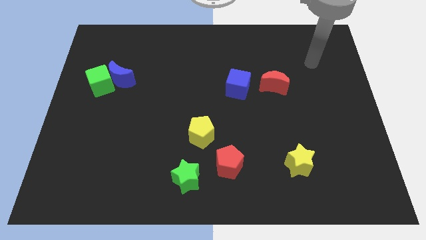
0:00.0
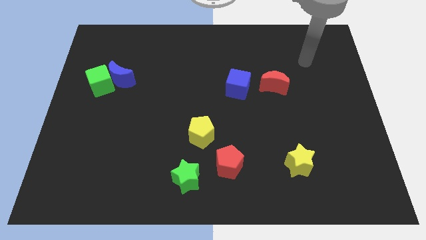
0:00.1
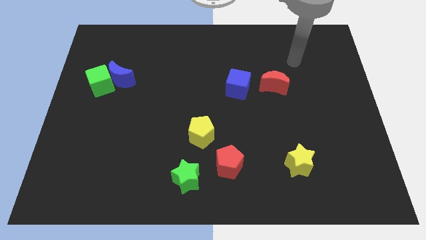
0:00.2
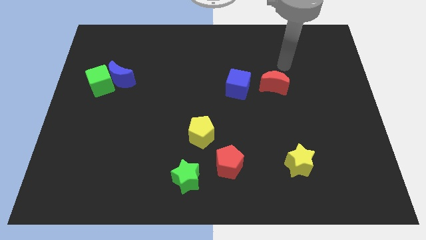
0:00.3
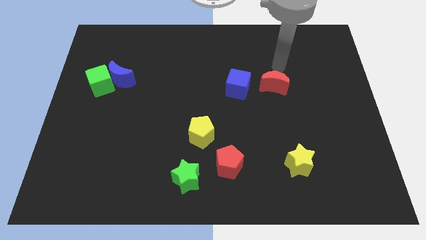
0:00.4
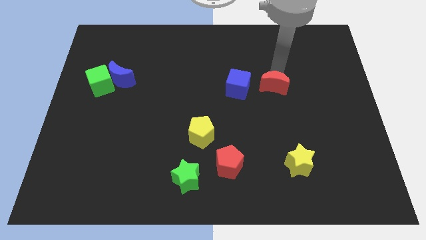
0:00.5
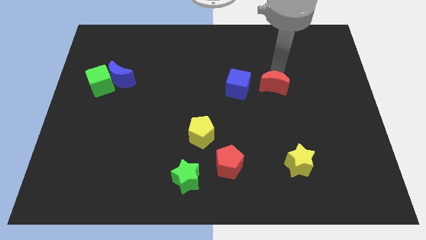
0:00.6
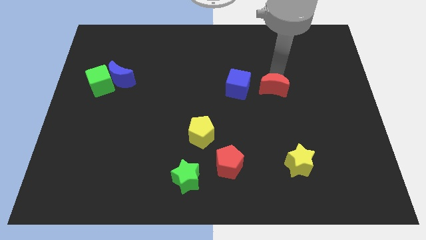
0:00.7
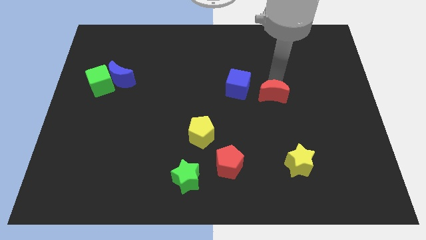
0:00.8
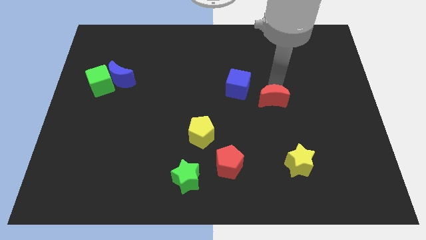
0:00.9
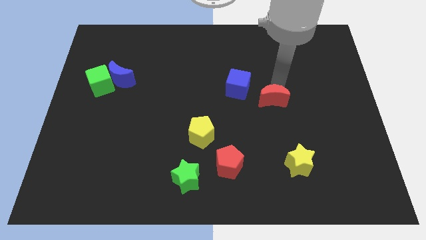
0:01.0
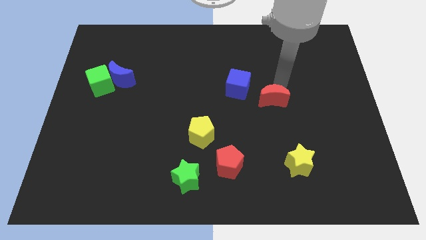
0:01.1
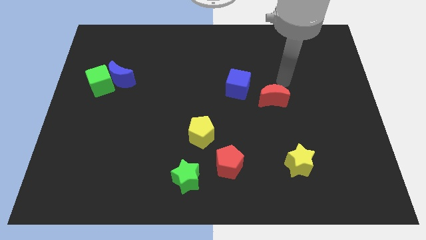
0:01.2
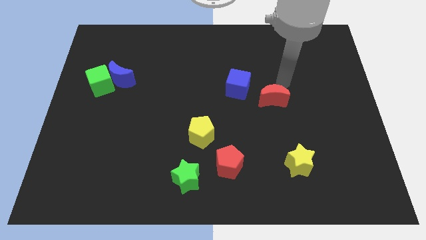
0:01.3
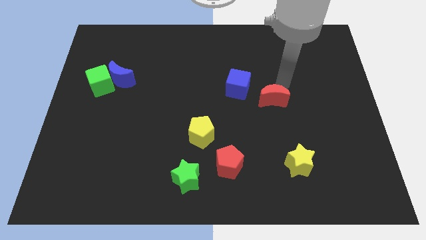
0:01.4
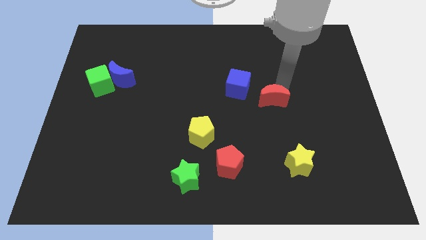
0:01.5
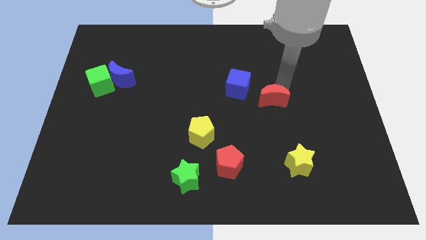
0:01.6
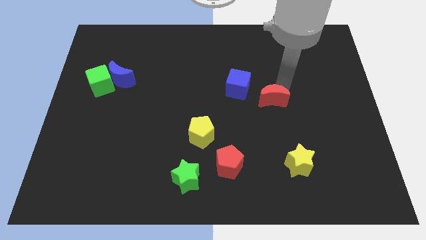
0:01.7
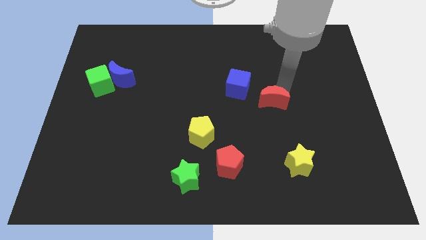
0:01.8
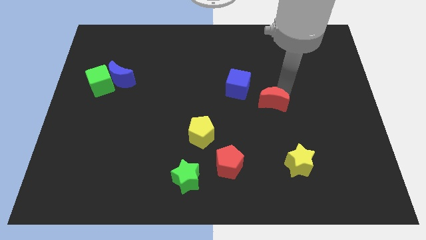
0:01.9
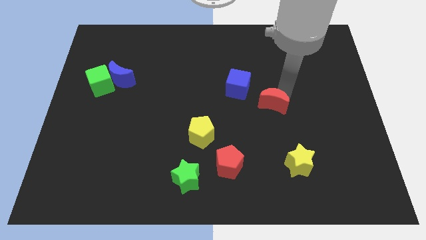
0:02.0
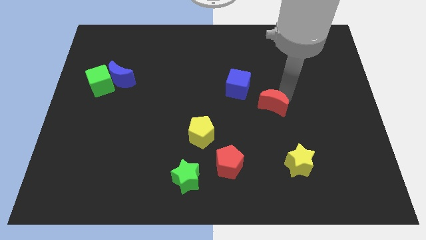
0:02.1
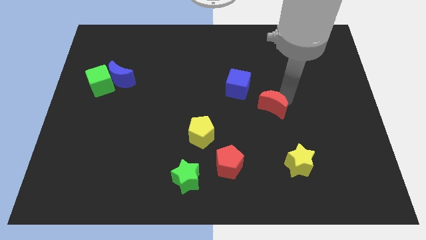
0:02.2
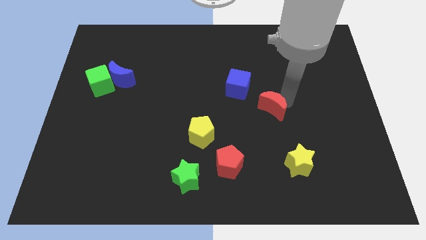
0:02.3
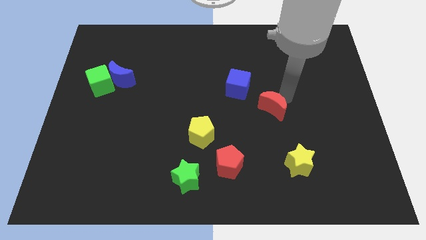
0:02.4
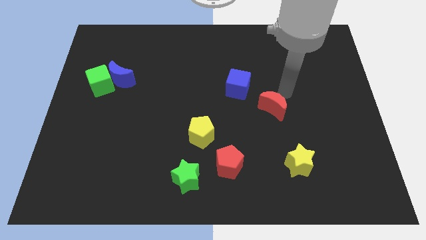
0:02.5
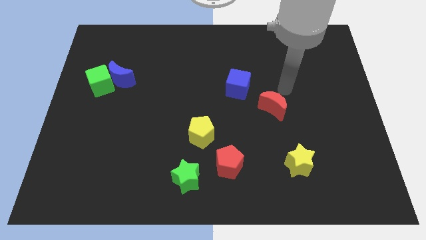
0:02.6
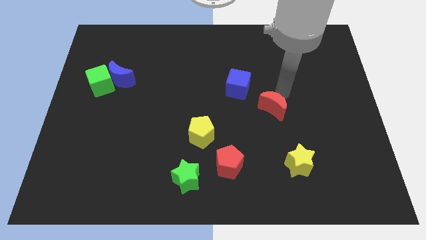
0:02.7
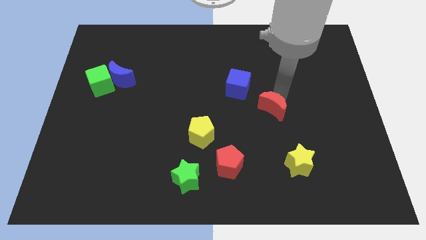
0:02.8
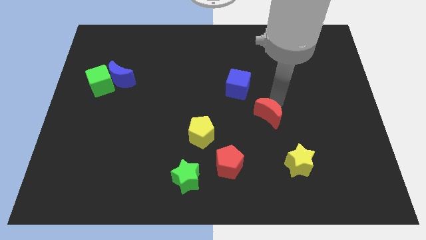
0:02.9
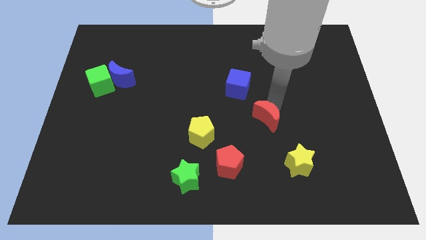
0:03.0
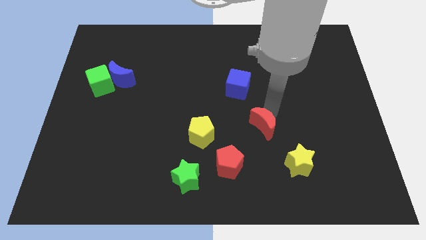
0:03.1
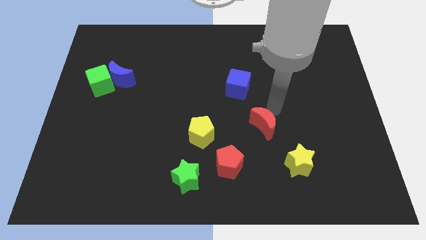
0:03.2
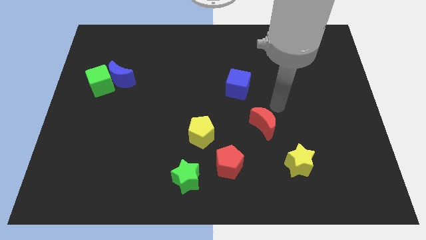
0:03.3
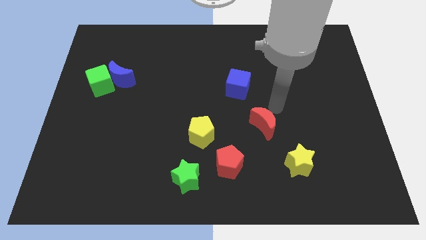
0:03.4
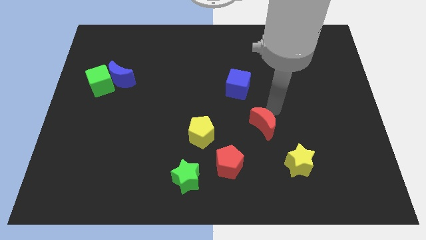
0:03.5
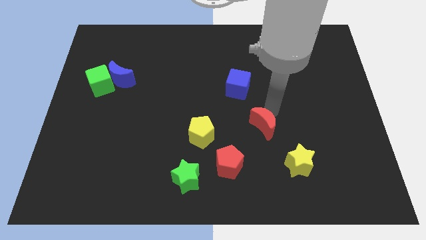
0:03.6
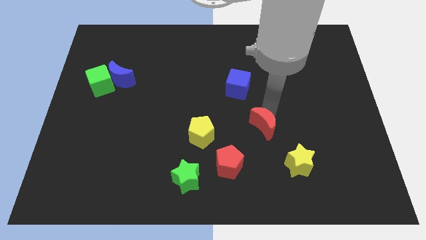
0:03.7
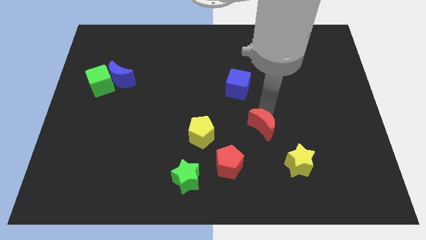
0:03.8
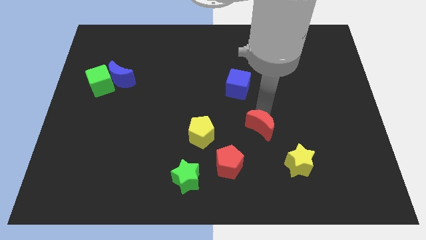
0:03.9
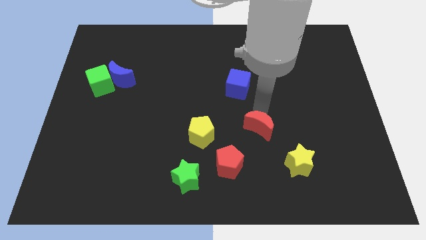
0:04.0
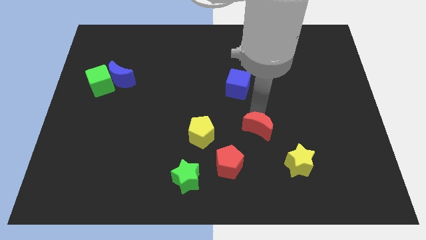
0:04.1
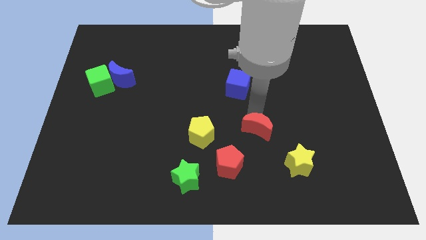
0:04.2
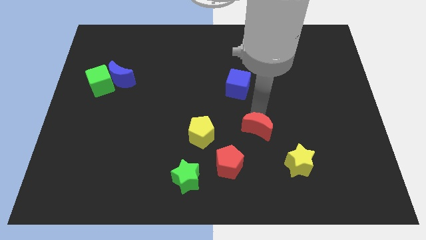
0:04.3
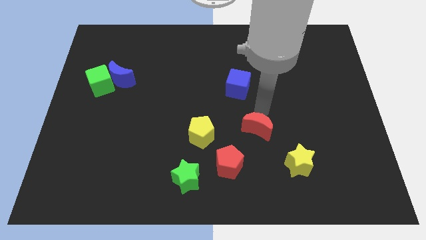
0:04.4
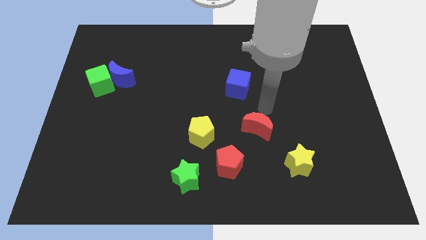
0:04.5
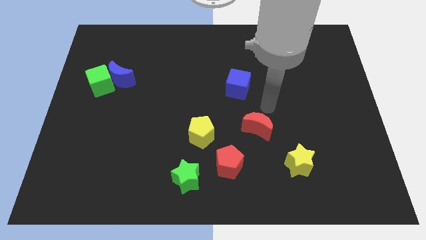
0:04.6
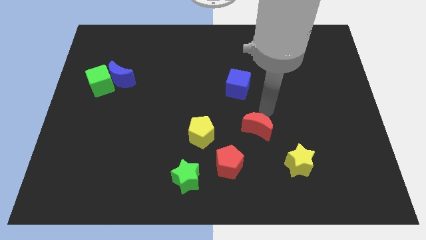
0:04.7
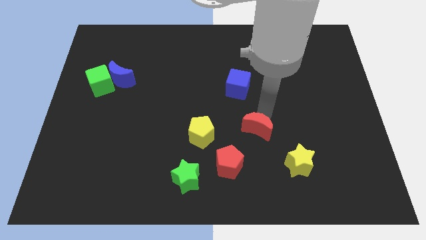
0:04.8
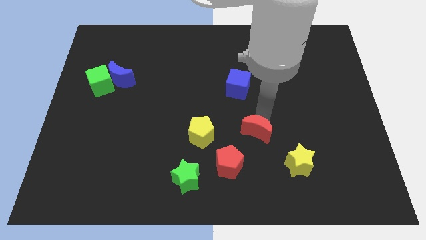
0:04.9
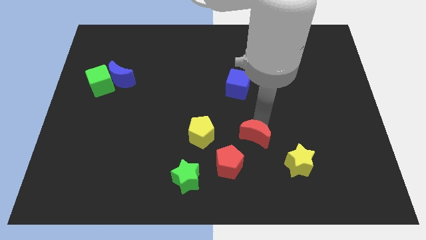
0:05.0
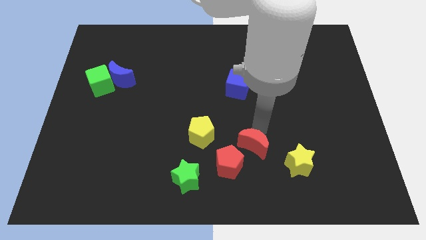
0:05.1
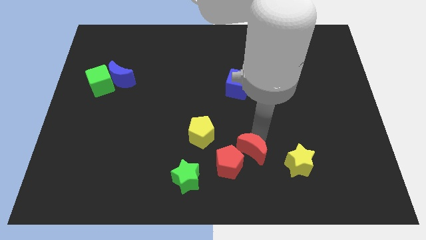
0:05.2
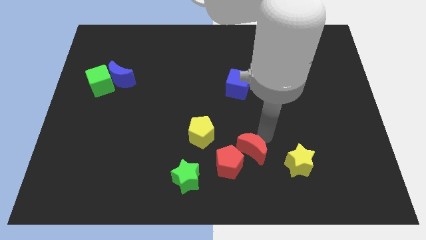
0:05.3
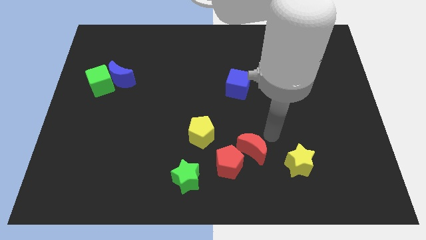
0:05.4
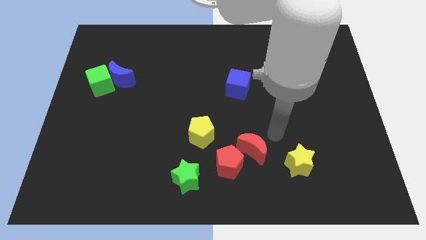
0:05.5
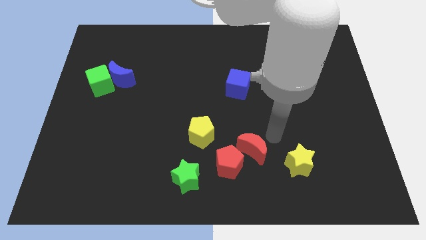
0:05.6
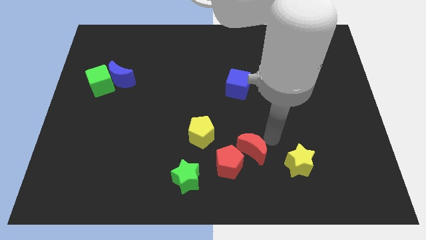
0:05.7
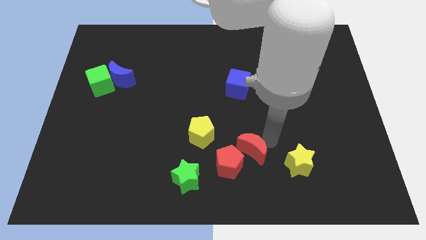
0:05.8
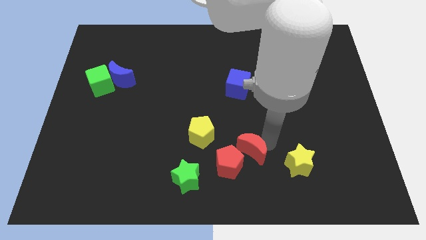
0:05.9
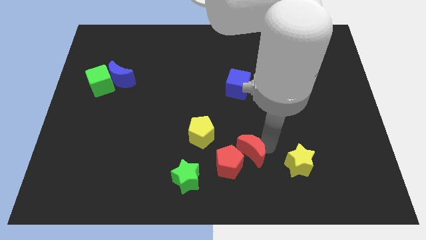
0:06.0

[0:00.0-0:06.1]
move the red moon close to the red pentagon
